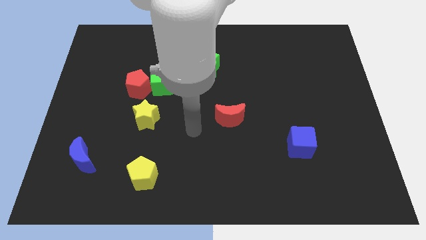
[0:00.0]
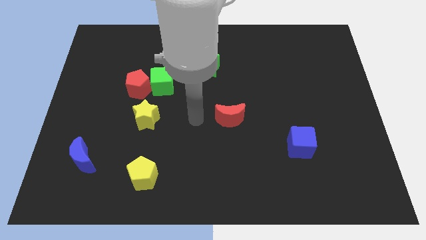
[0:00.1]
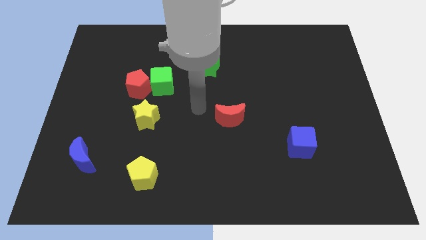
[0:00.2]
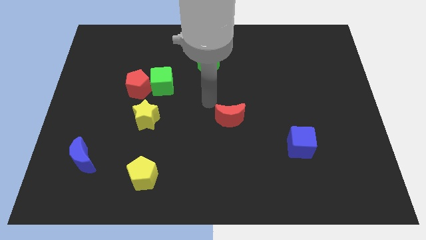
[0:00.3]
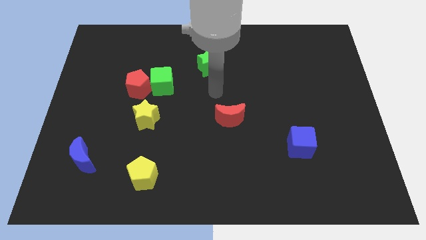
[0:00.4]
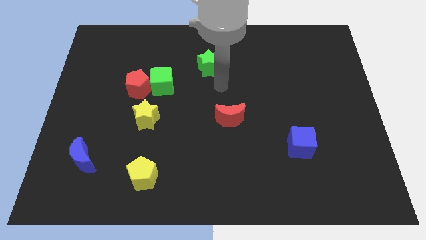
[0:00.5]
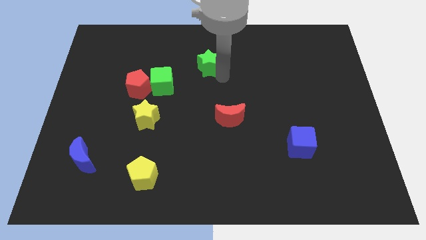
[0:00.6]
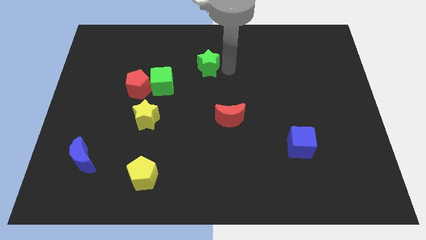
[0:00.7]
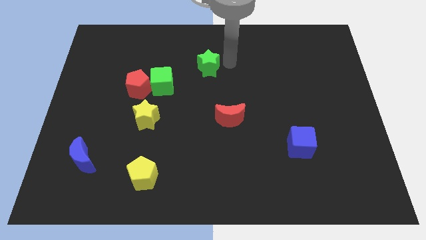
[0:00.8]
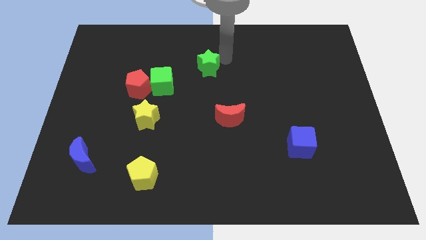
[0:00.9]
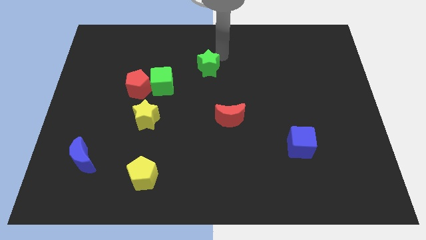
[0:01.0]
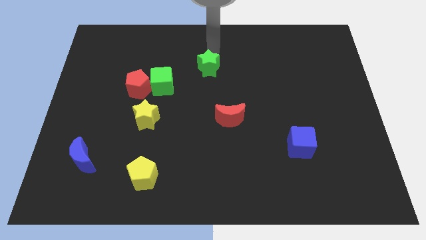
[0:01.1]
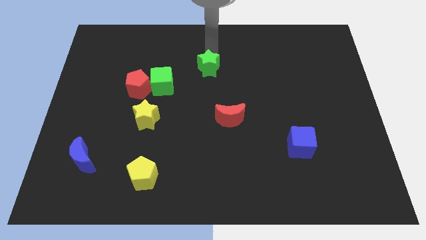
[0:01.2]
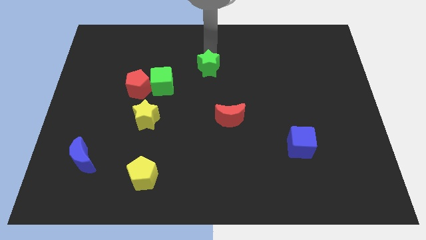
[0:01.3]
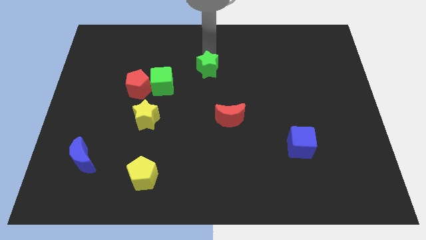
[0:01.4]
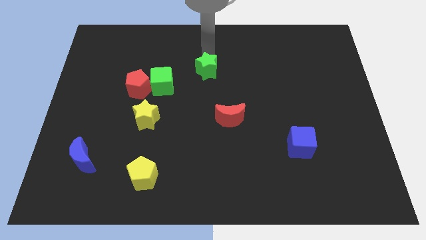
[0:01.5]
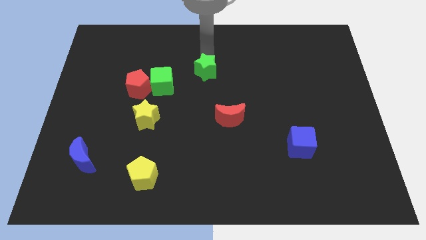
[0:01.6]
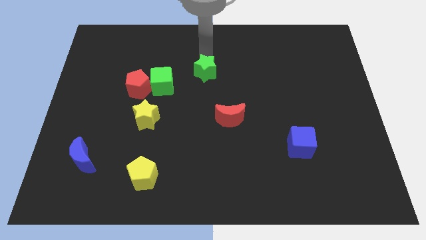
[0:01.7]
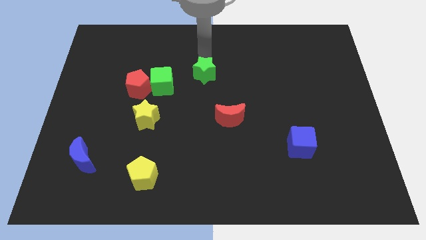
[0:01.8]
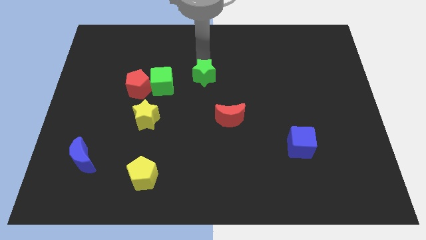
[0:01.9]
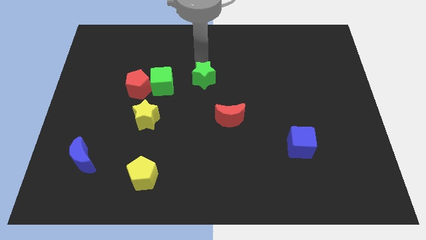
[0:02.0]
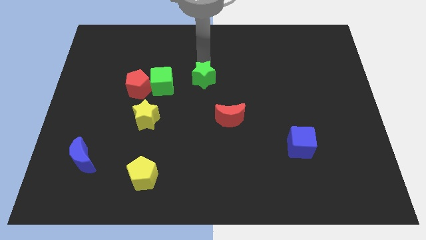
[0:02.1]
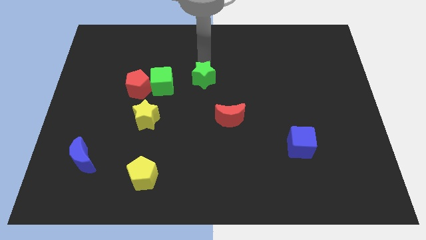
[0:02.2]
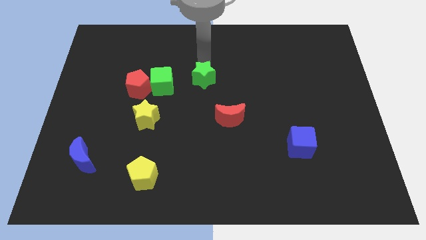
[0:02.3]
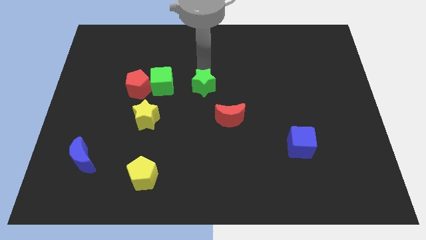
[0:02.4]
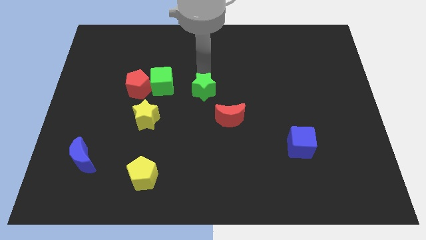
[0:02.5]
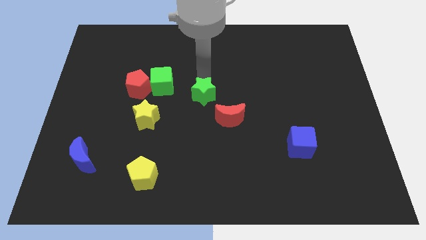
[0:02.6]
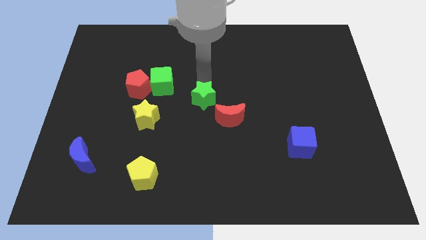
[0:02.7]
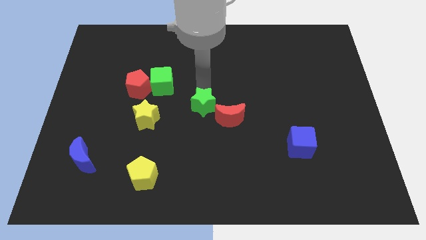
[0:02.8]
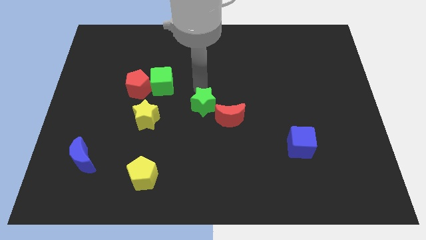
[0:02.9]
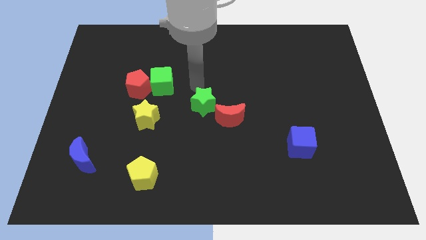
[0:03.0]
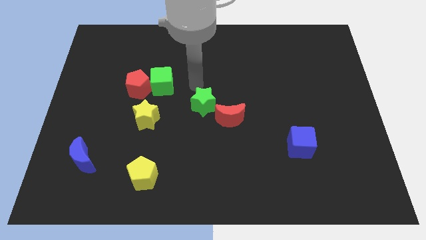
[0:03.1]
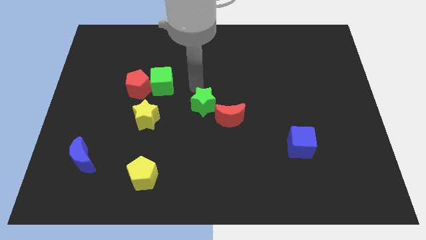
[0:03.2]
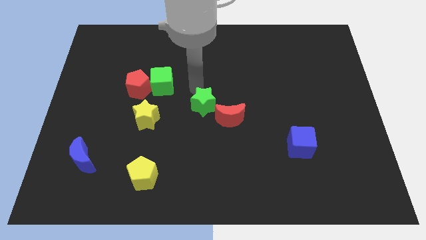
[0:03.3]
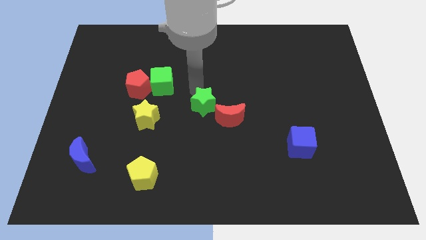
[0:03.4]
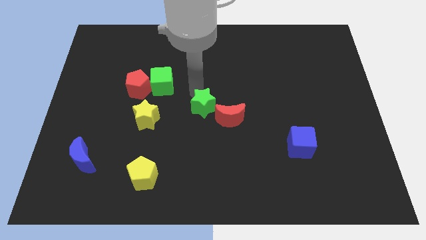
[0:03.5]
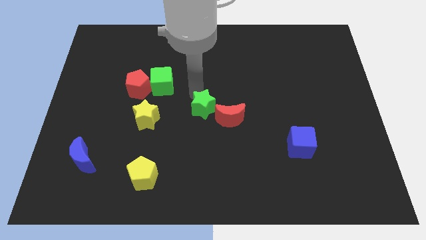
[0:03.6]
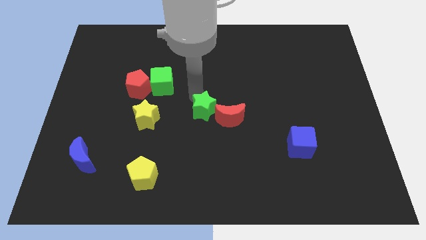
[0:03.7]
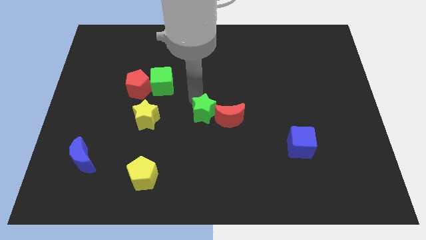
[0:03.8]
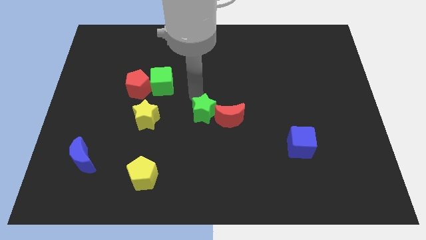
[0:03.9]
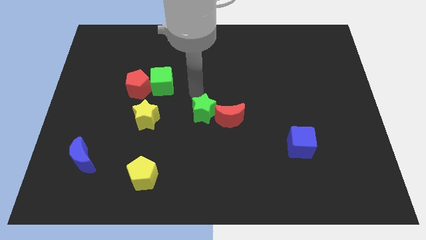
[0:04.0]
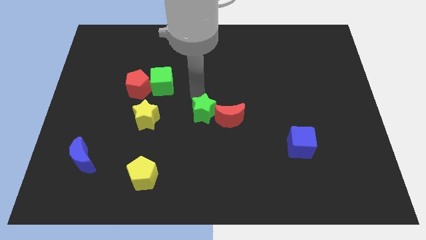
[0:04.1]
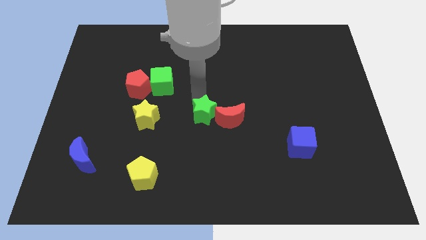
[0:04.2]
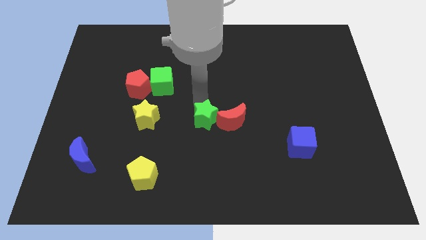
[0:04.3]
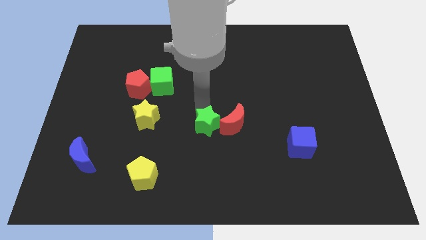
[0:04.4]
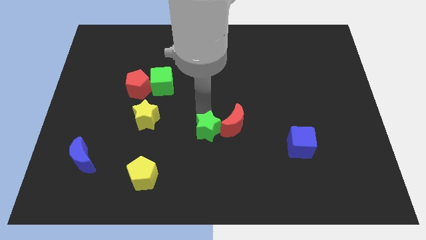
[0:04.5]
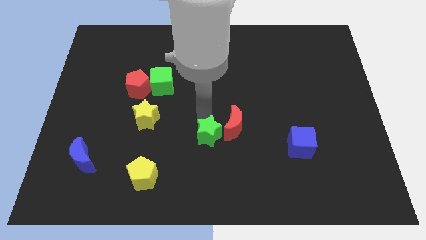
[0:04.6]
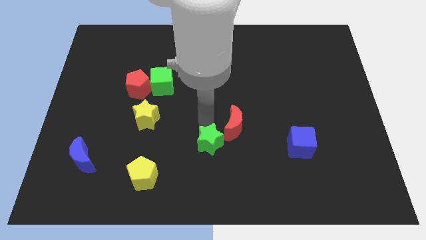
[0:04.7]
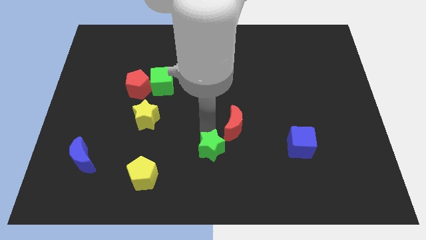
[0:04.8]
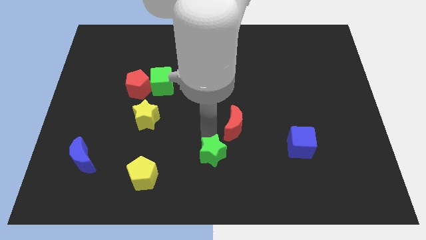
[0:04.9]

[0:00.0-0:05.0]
push the green star to the bottom
